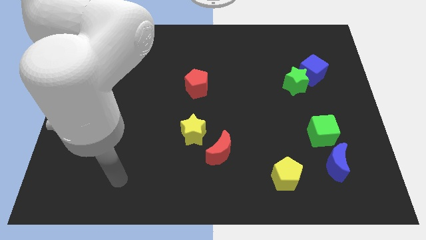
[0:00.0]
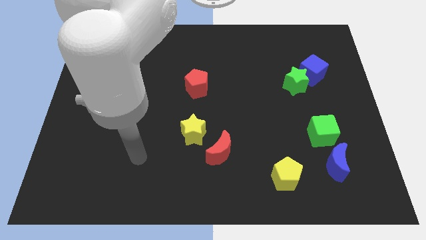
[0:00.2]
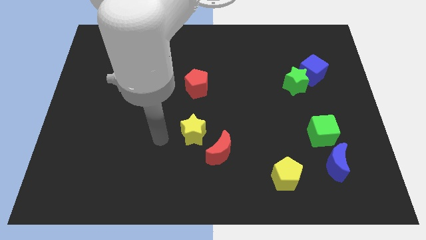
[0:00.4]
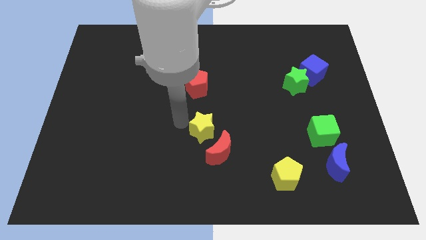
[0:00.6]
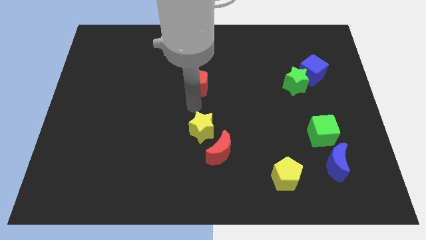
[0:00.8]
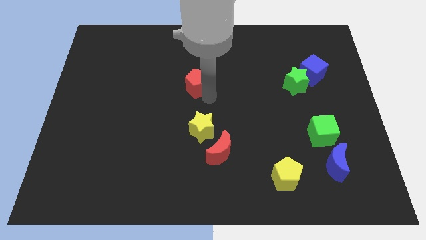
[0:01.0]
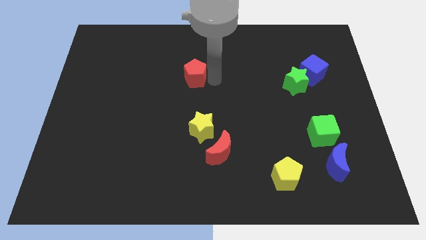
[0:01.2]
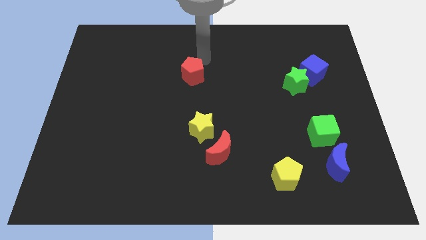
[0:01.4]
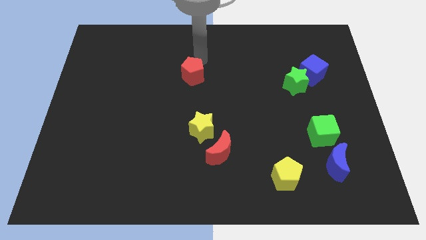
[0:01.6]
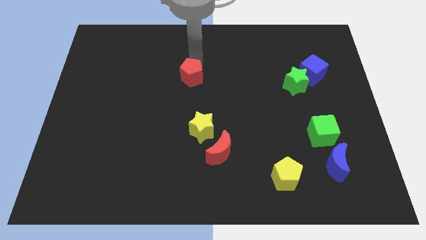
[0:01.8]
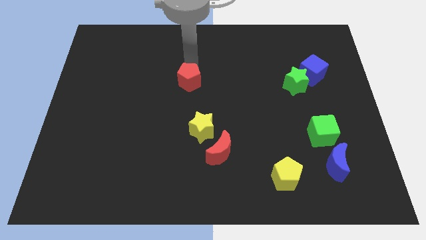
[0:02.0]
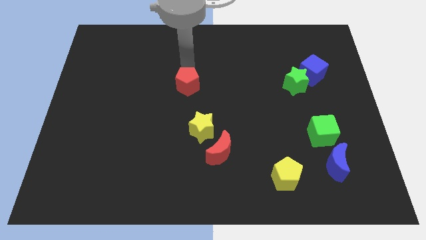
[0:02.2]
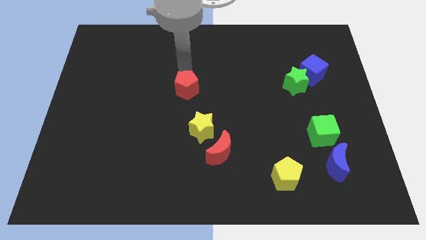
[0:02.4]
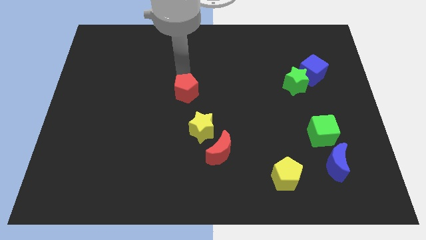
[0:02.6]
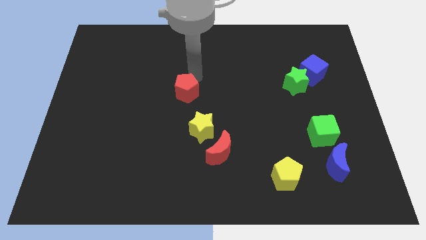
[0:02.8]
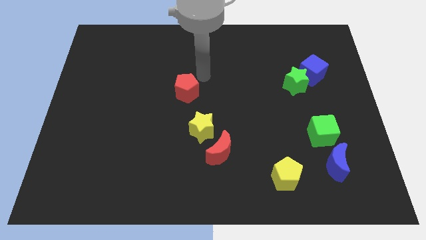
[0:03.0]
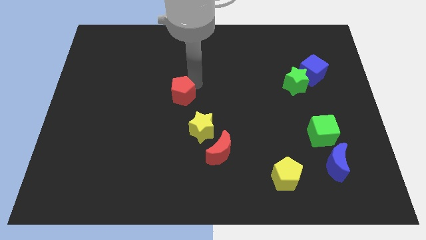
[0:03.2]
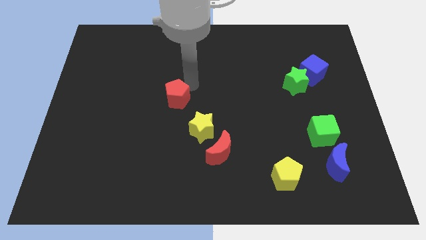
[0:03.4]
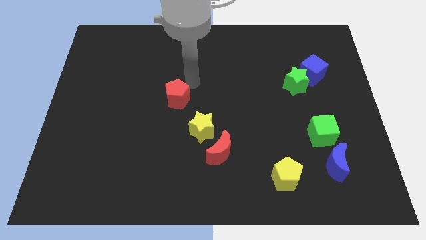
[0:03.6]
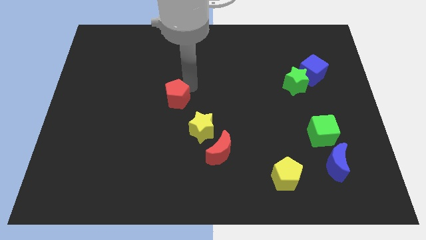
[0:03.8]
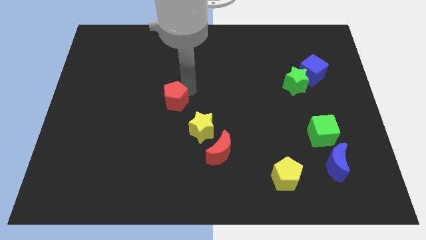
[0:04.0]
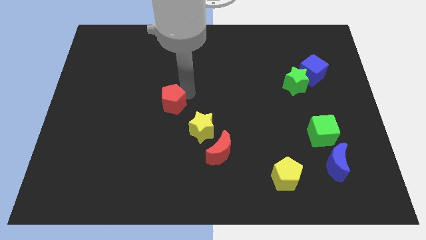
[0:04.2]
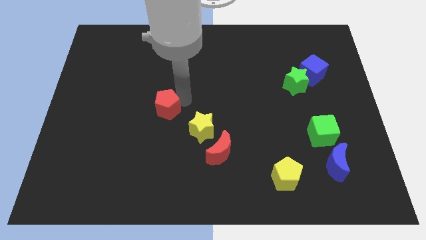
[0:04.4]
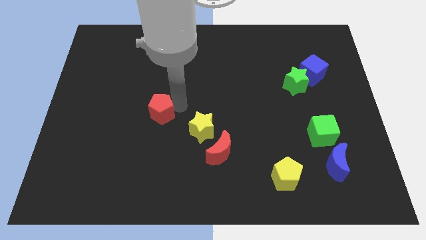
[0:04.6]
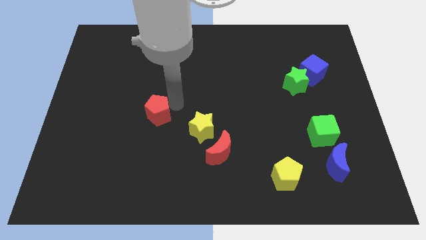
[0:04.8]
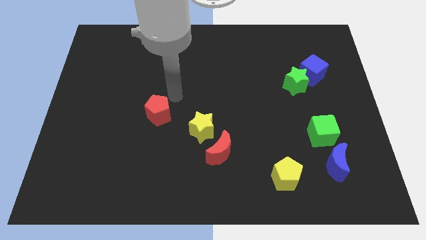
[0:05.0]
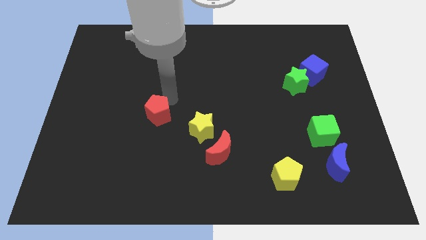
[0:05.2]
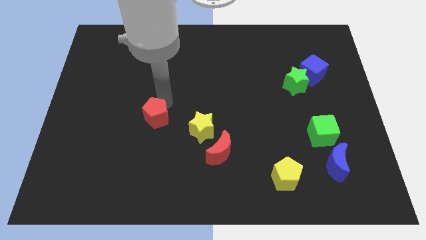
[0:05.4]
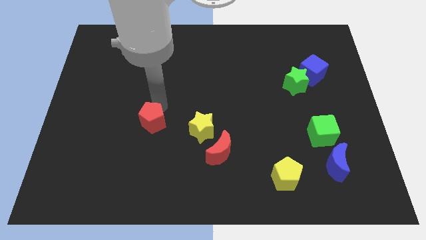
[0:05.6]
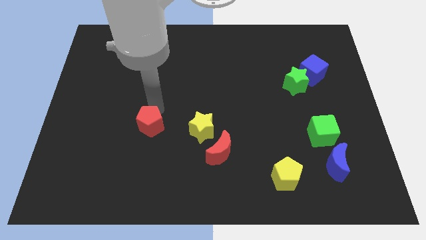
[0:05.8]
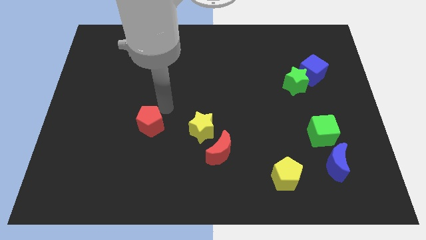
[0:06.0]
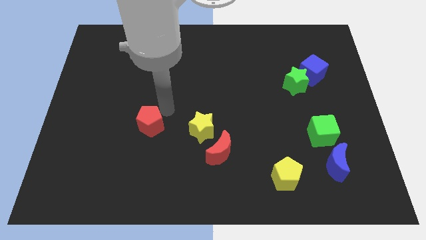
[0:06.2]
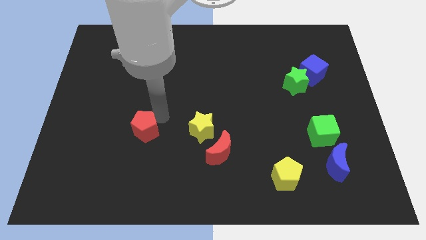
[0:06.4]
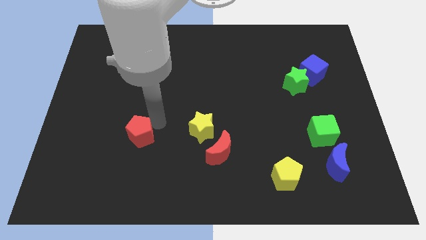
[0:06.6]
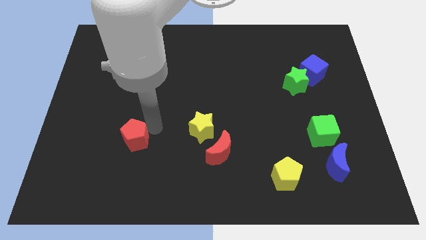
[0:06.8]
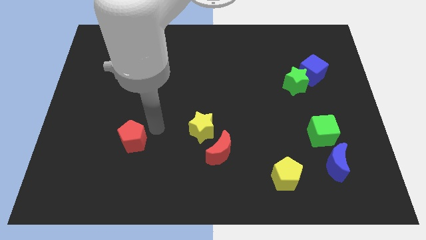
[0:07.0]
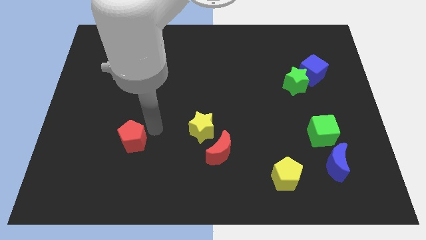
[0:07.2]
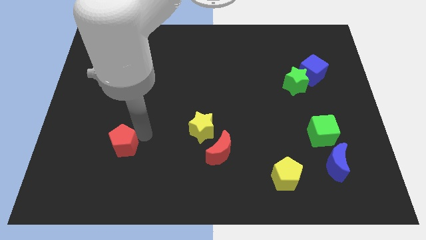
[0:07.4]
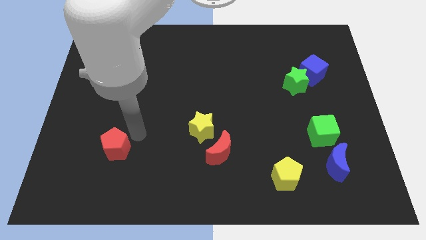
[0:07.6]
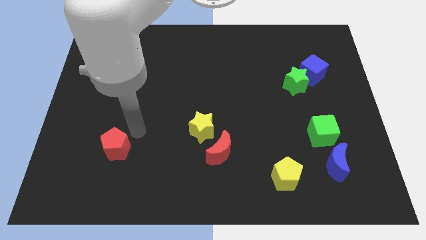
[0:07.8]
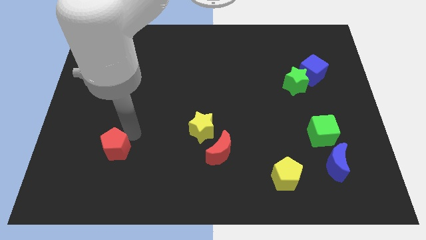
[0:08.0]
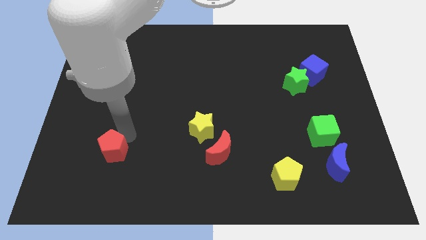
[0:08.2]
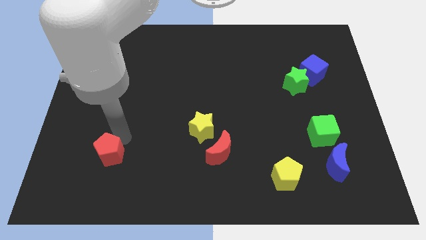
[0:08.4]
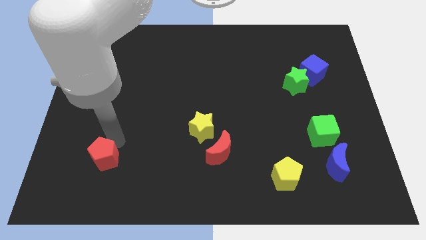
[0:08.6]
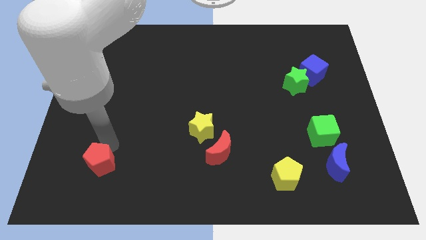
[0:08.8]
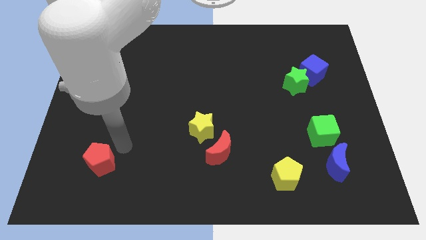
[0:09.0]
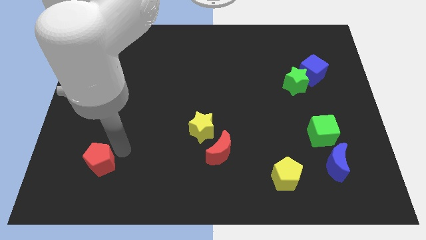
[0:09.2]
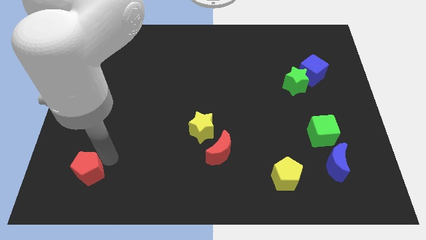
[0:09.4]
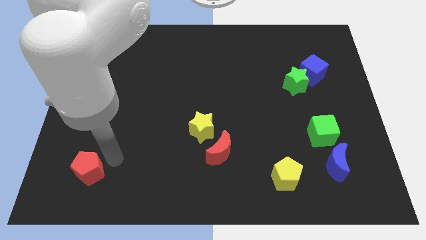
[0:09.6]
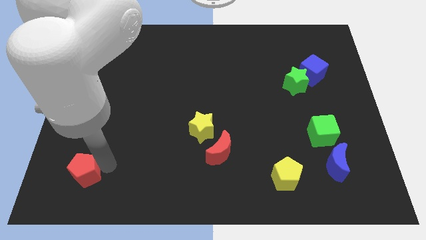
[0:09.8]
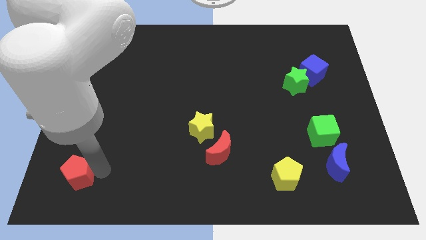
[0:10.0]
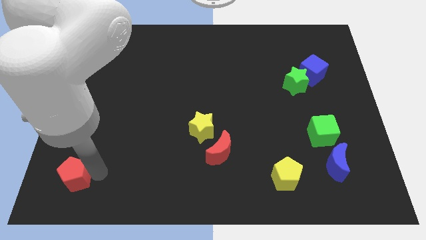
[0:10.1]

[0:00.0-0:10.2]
slide the red pentagon to the bottom left of the board

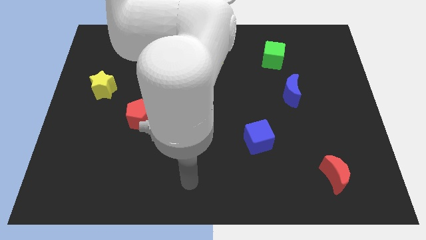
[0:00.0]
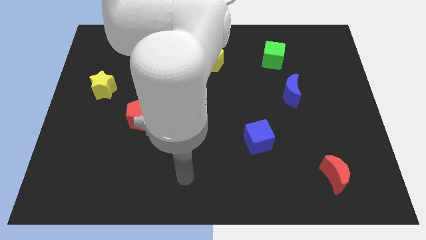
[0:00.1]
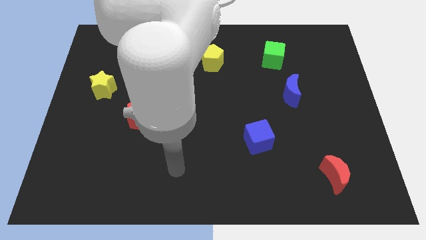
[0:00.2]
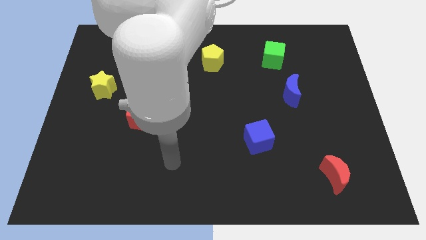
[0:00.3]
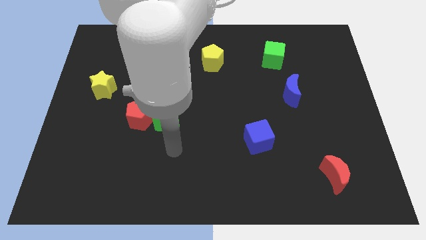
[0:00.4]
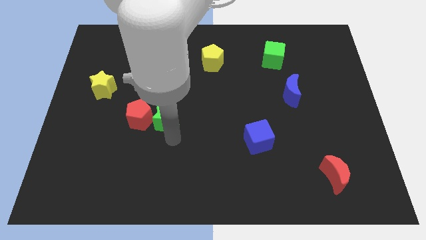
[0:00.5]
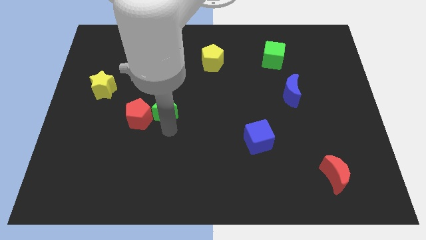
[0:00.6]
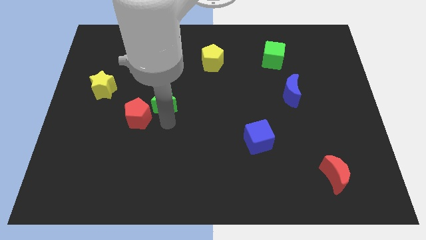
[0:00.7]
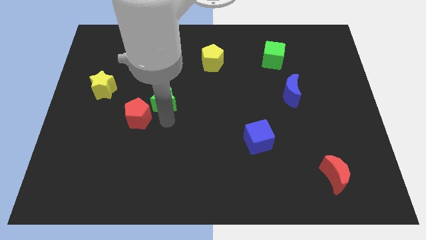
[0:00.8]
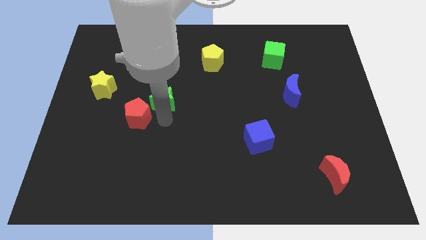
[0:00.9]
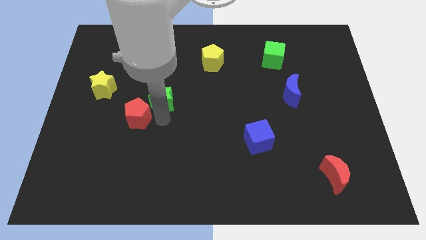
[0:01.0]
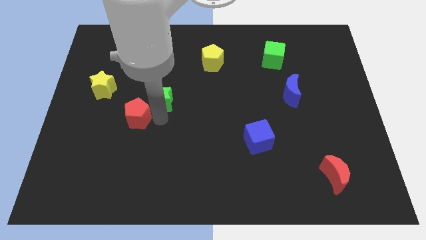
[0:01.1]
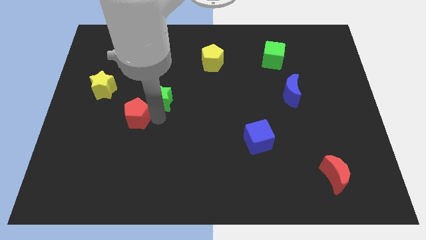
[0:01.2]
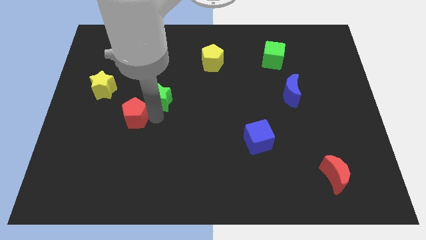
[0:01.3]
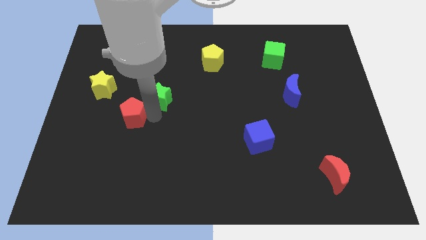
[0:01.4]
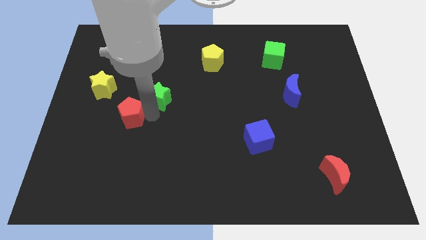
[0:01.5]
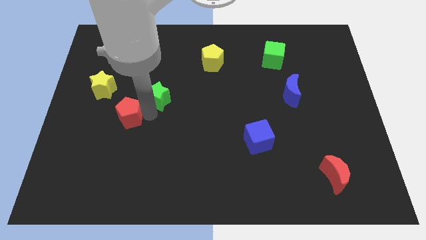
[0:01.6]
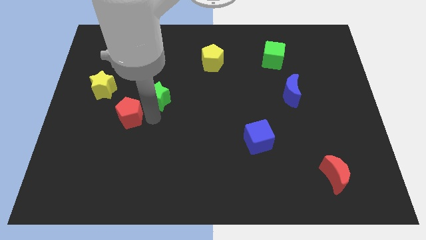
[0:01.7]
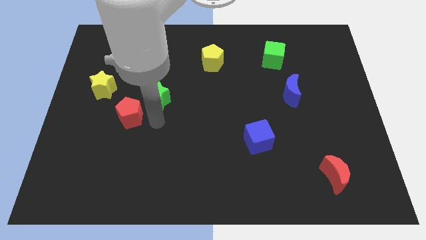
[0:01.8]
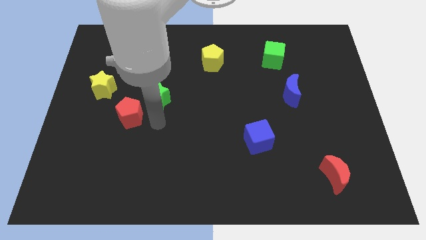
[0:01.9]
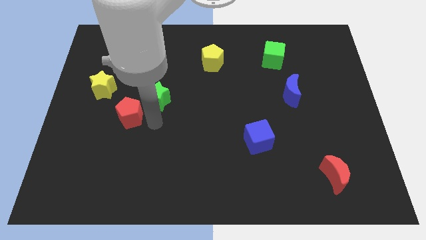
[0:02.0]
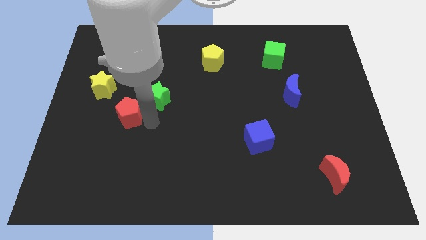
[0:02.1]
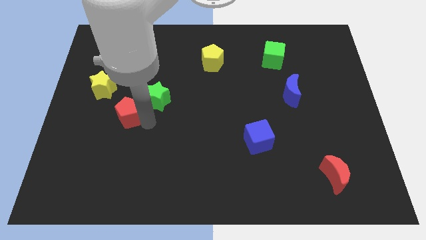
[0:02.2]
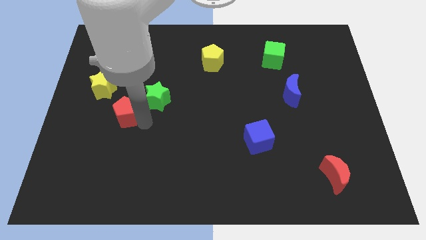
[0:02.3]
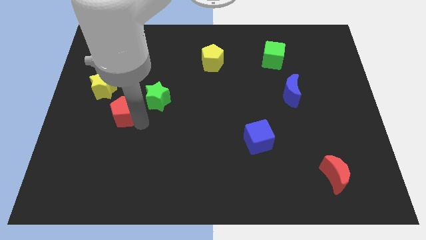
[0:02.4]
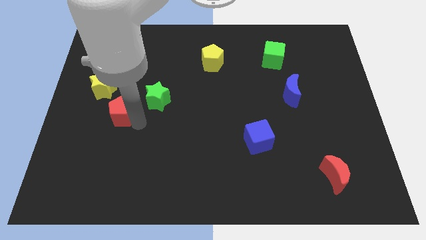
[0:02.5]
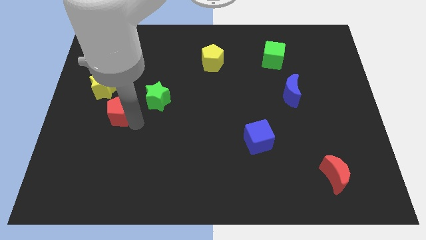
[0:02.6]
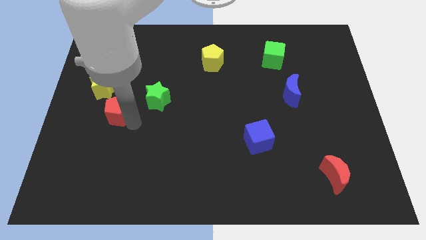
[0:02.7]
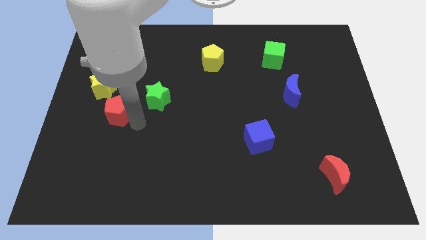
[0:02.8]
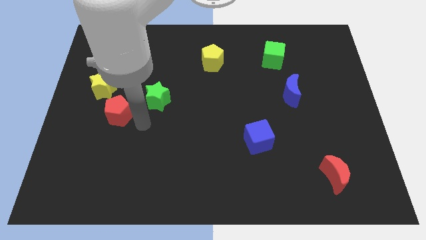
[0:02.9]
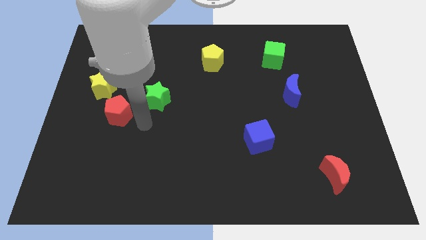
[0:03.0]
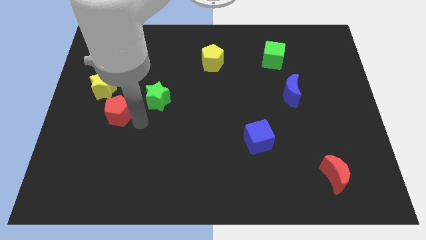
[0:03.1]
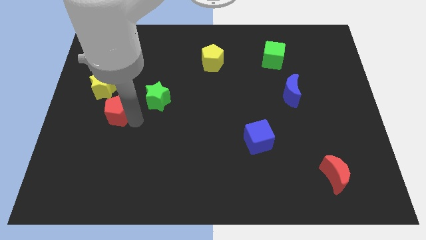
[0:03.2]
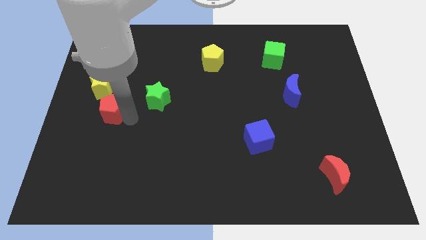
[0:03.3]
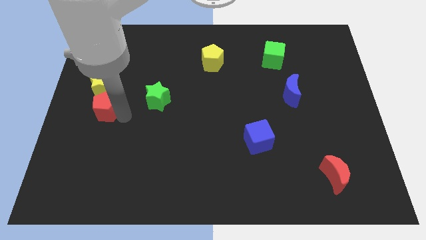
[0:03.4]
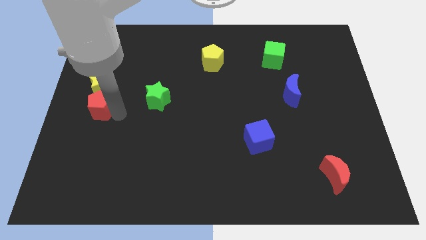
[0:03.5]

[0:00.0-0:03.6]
put the red pentagon to the left side
